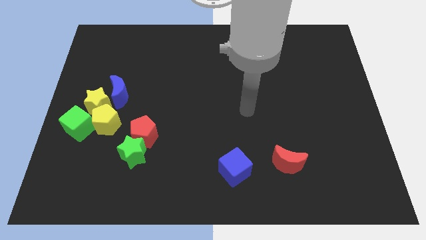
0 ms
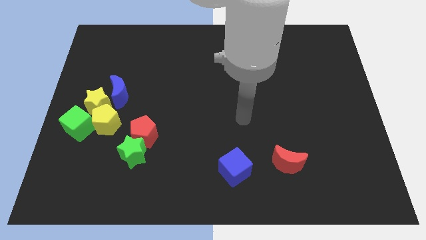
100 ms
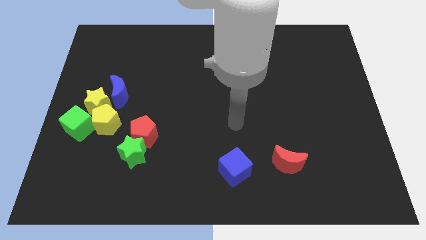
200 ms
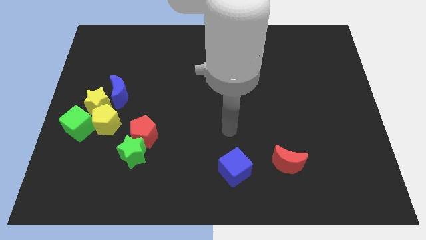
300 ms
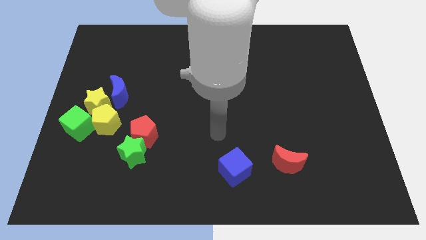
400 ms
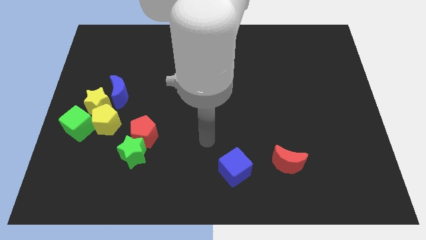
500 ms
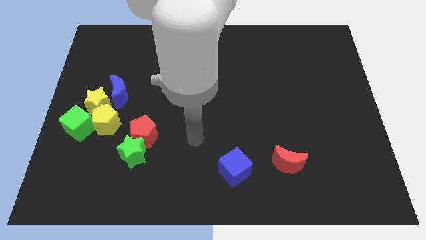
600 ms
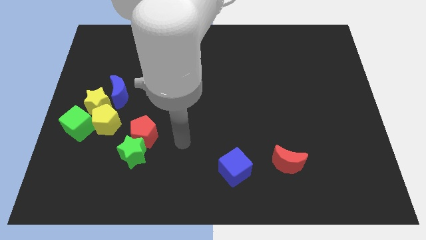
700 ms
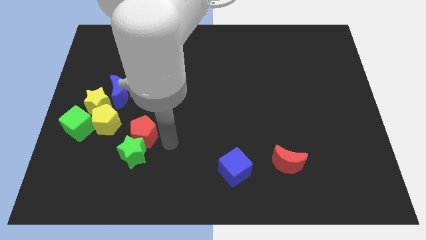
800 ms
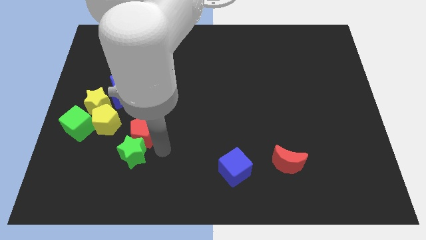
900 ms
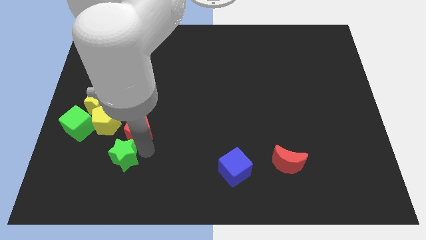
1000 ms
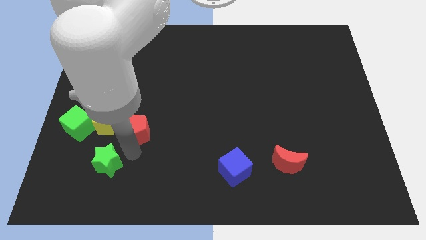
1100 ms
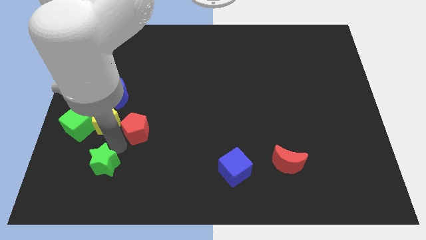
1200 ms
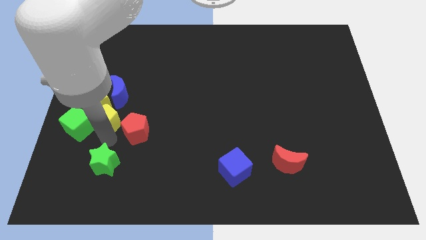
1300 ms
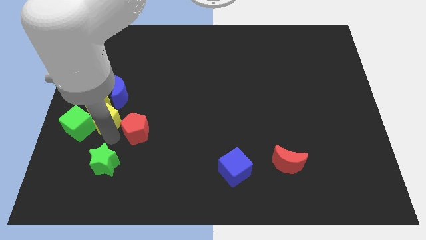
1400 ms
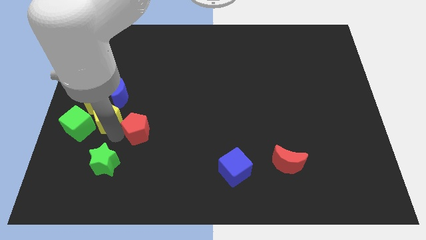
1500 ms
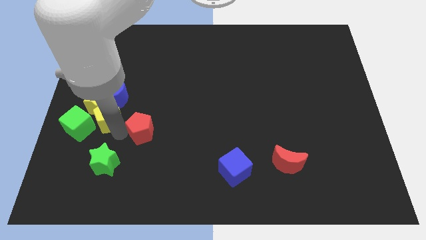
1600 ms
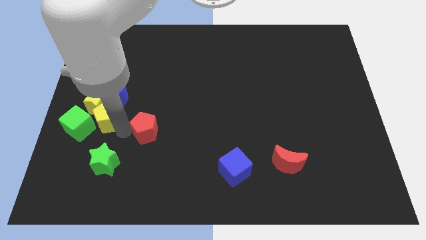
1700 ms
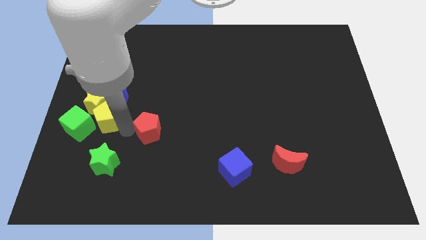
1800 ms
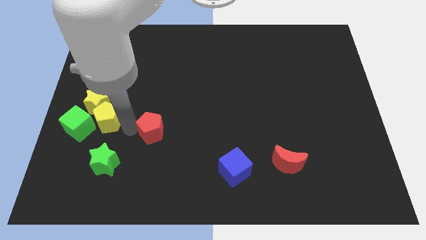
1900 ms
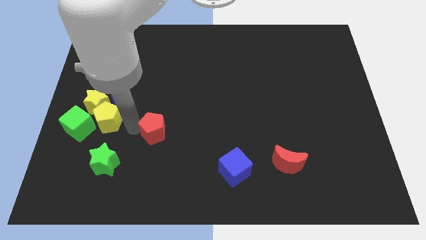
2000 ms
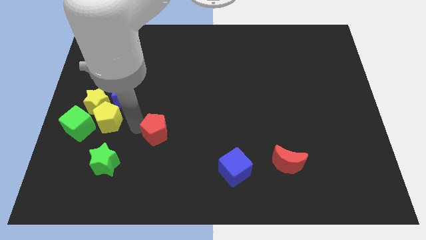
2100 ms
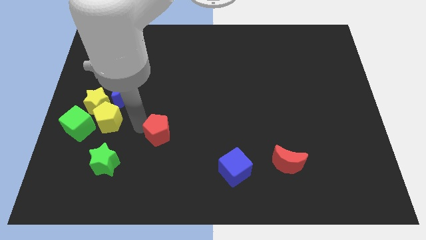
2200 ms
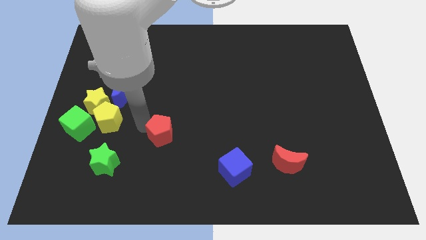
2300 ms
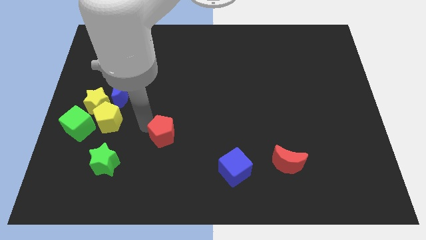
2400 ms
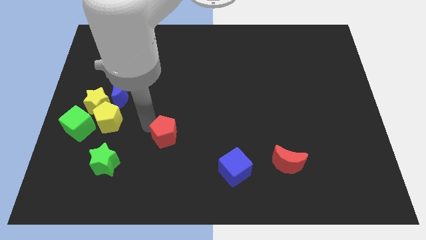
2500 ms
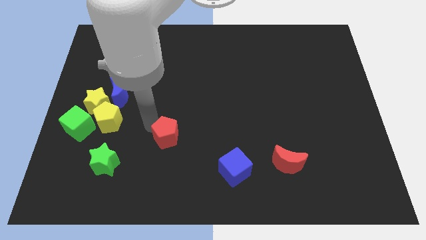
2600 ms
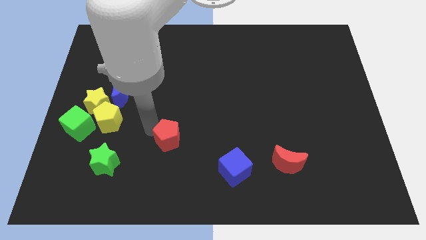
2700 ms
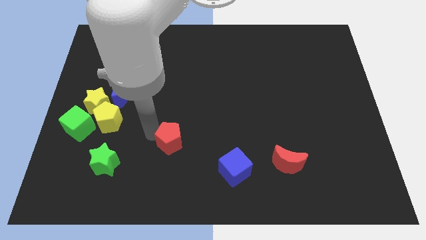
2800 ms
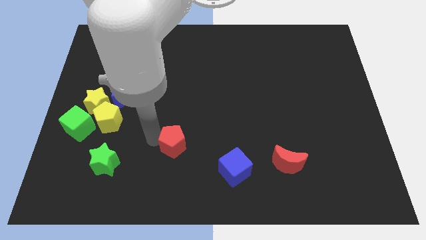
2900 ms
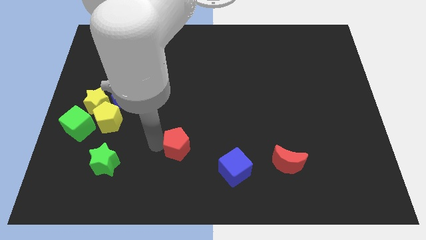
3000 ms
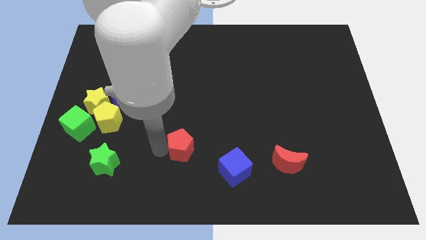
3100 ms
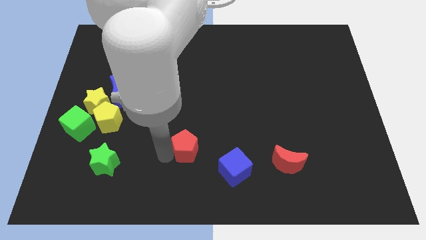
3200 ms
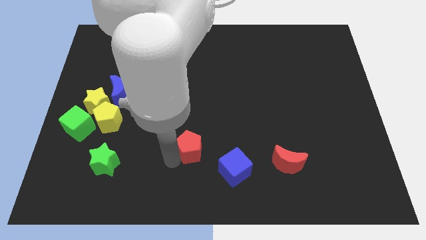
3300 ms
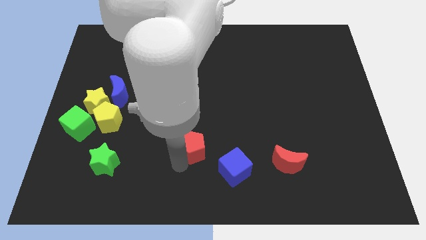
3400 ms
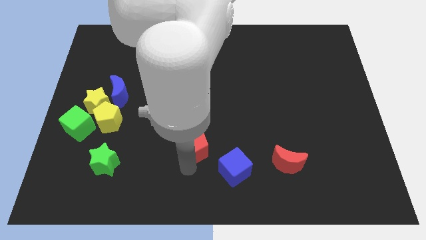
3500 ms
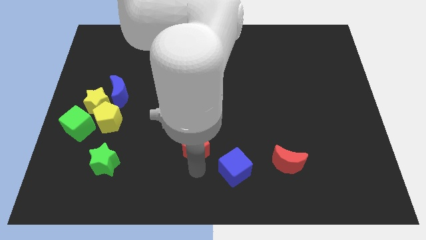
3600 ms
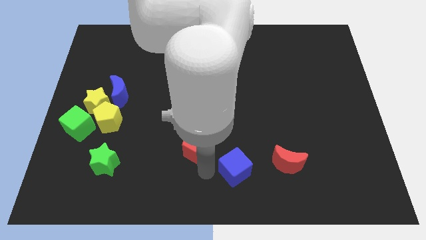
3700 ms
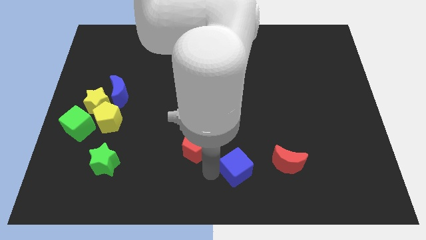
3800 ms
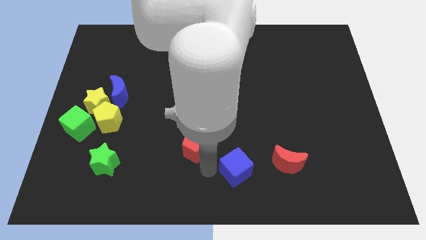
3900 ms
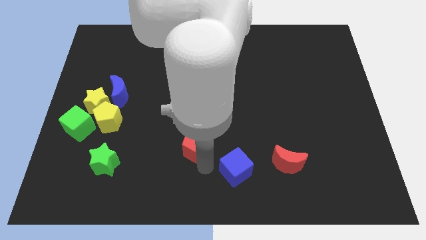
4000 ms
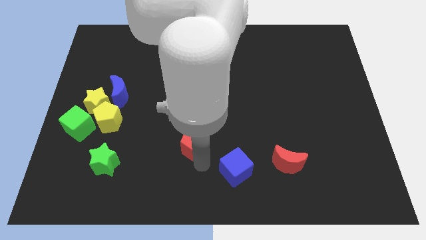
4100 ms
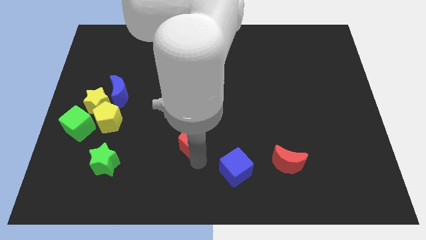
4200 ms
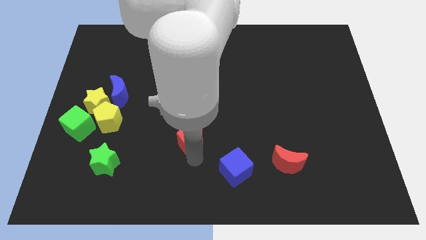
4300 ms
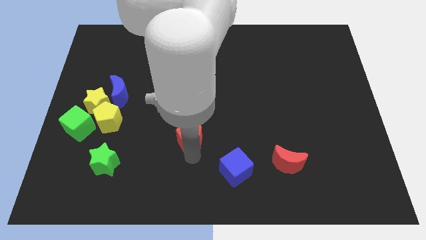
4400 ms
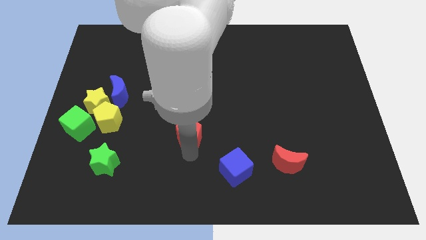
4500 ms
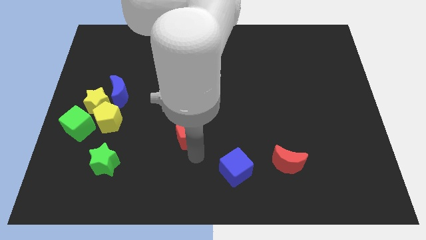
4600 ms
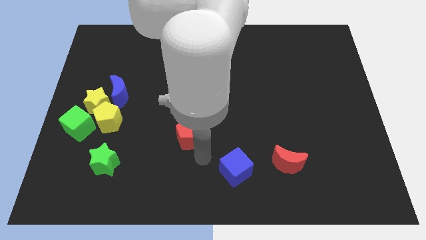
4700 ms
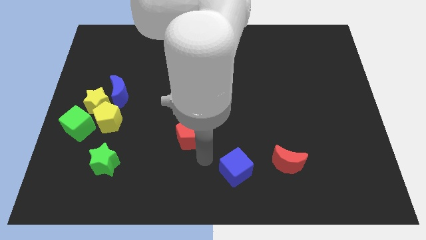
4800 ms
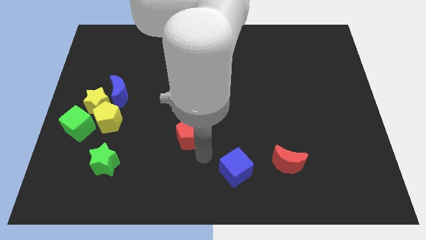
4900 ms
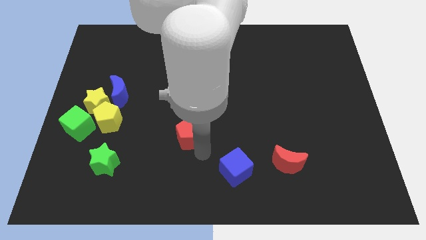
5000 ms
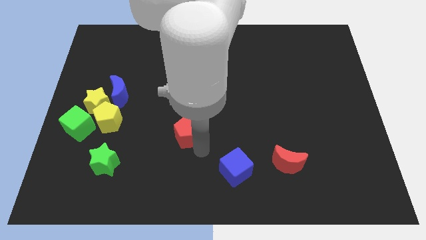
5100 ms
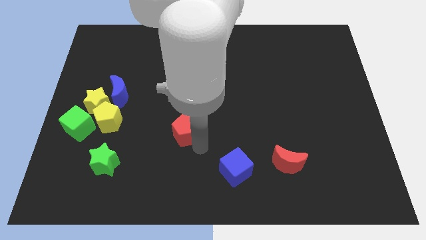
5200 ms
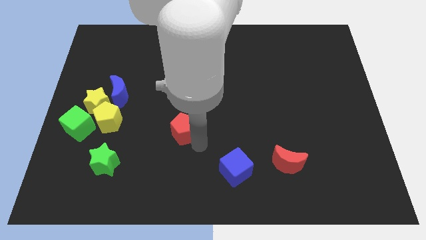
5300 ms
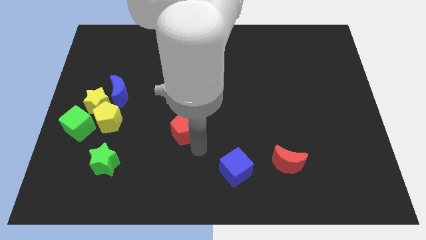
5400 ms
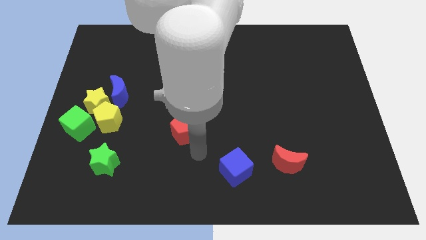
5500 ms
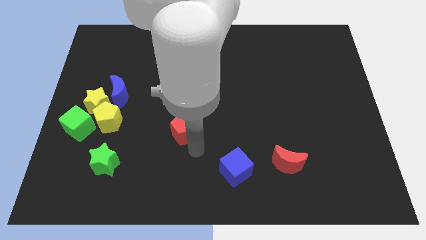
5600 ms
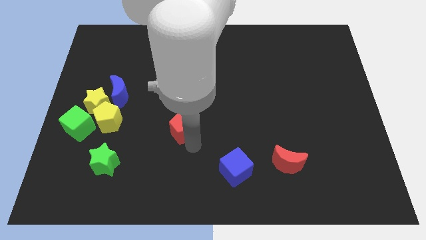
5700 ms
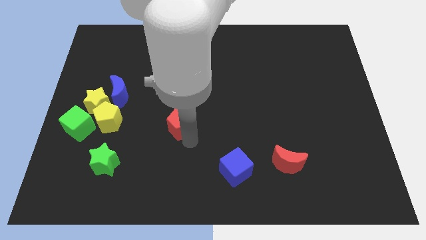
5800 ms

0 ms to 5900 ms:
slightly push the red pentagon diagonally upwards and right

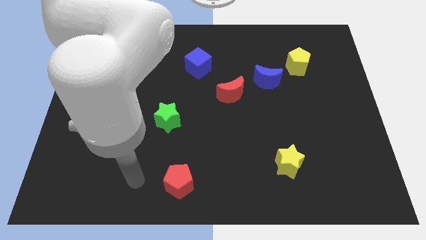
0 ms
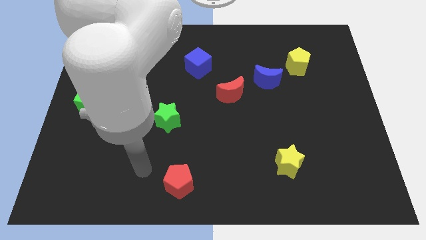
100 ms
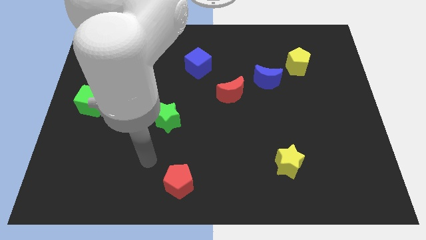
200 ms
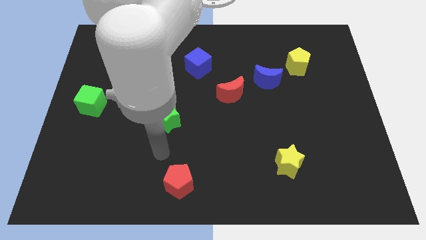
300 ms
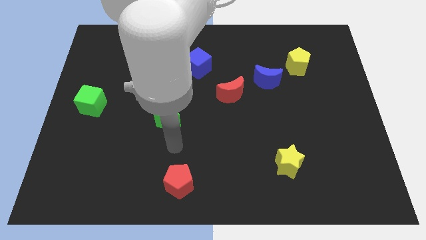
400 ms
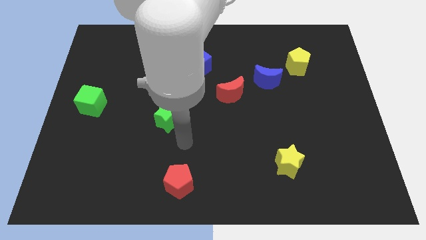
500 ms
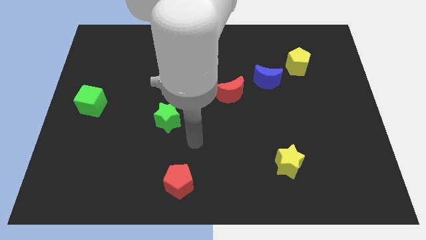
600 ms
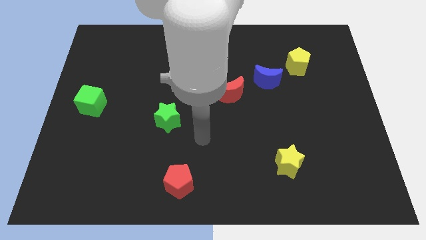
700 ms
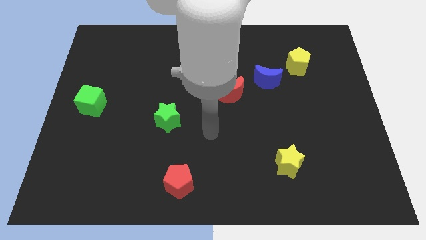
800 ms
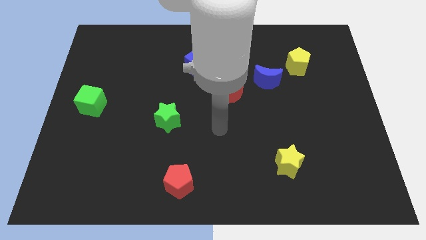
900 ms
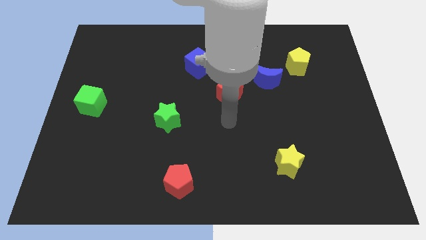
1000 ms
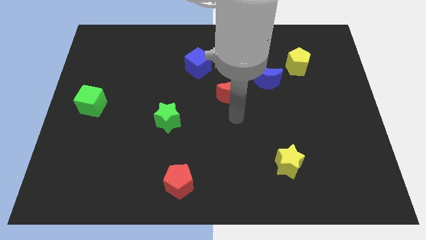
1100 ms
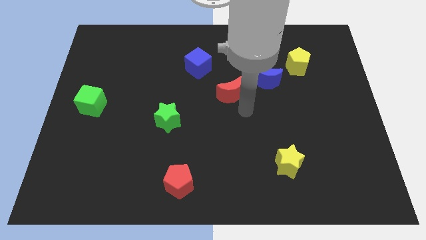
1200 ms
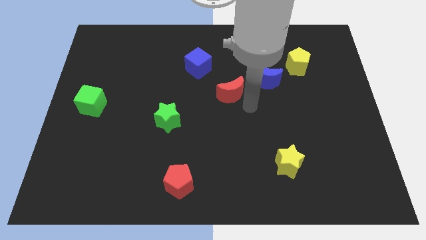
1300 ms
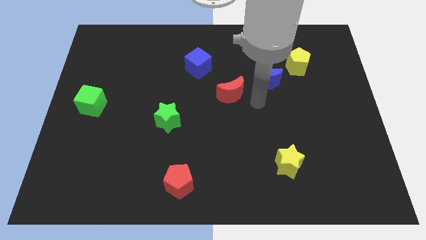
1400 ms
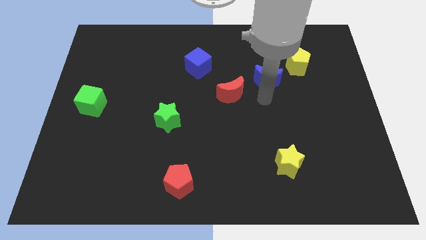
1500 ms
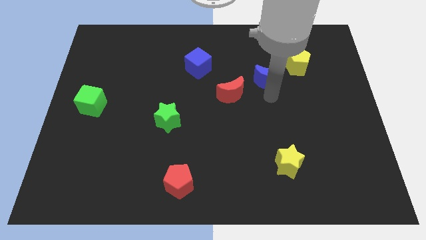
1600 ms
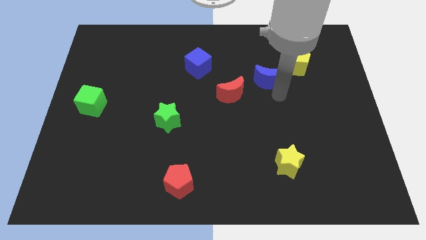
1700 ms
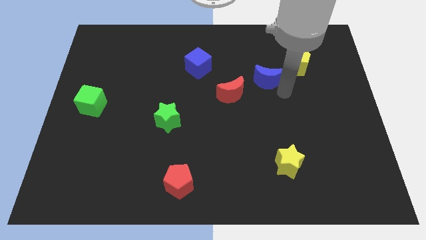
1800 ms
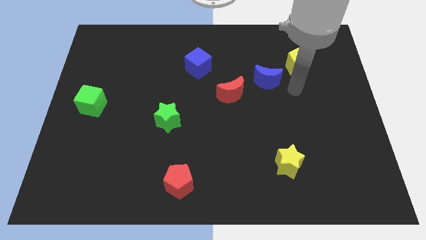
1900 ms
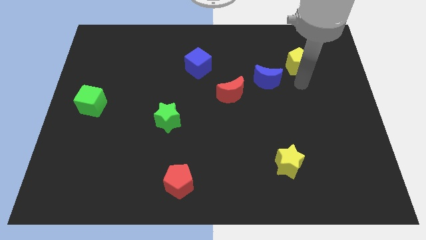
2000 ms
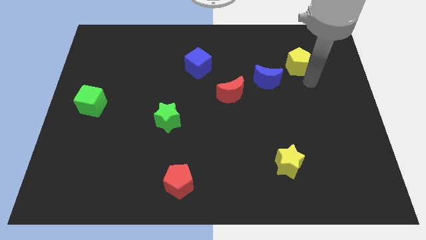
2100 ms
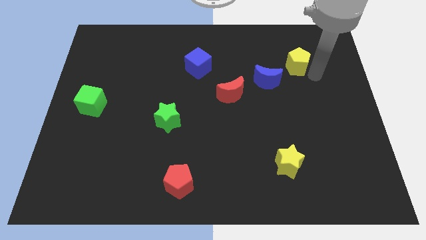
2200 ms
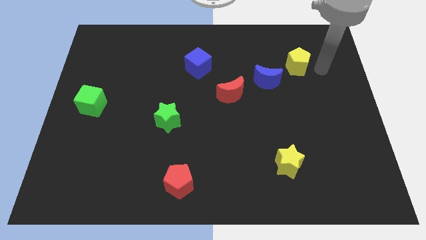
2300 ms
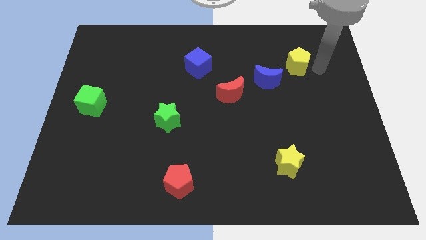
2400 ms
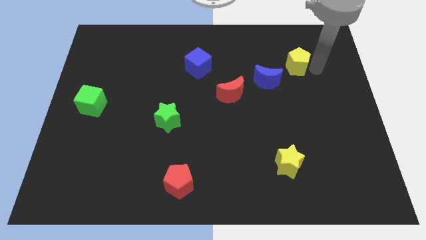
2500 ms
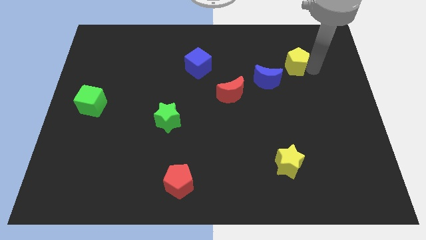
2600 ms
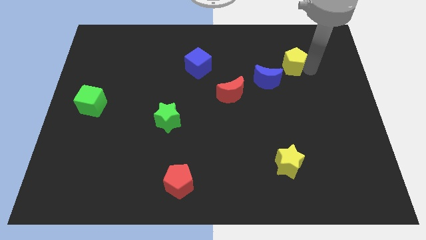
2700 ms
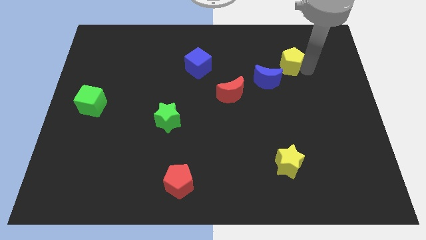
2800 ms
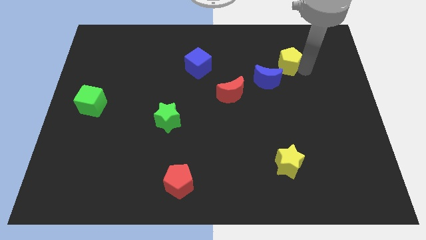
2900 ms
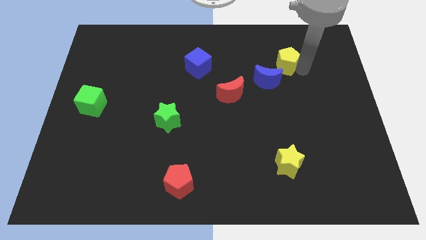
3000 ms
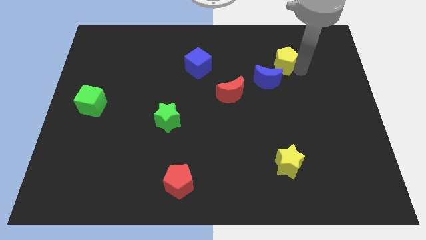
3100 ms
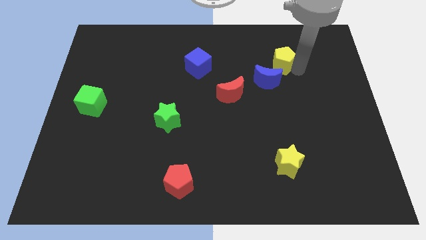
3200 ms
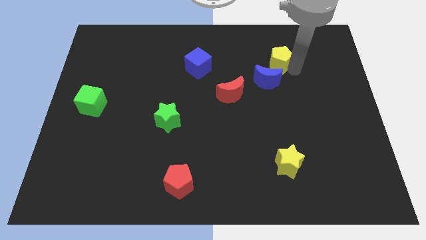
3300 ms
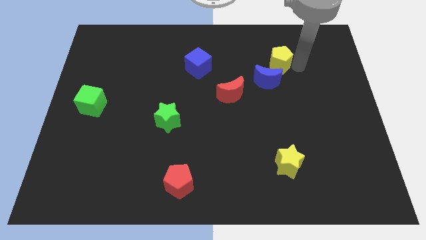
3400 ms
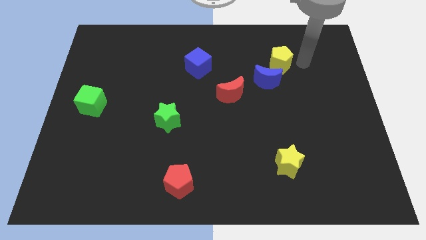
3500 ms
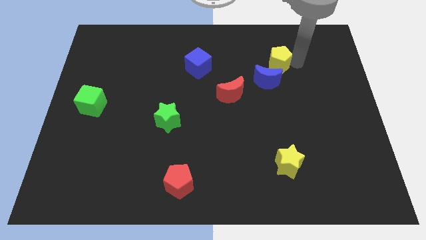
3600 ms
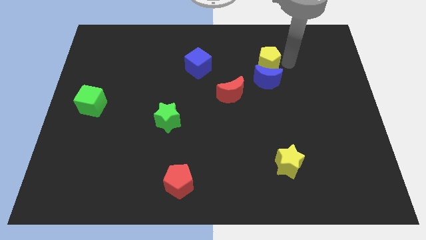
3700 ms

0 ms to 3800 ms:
slightly push the yellow pentagon left
